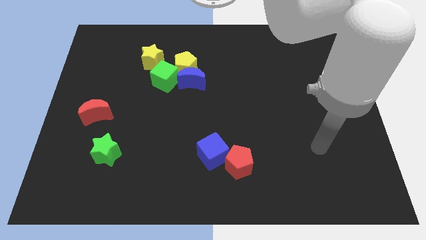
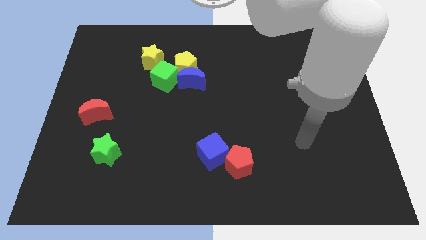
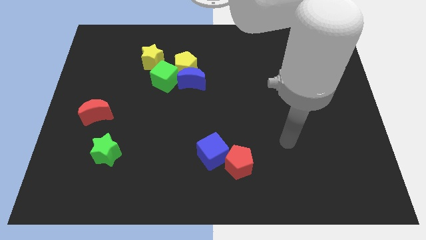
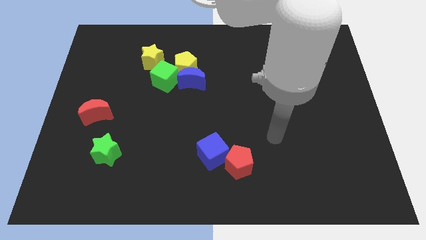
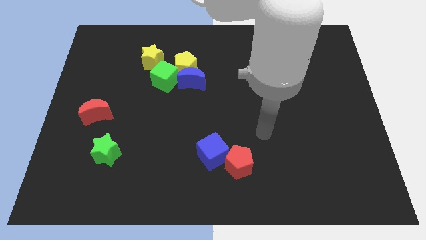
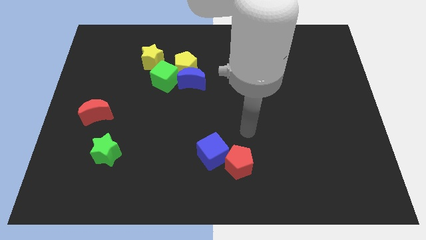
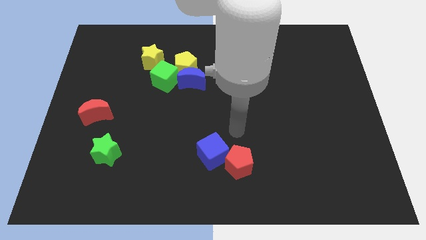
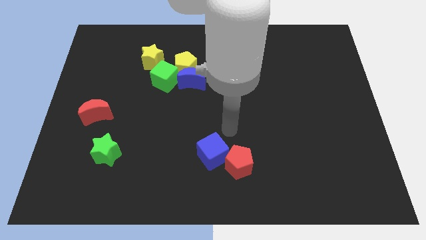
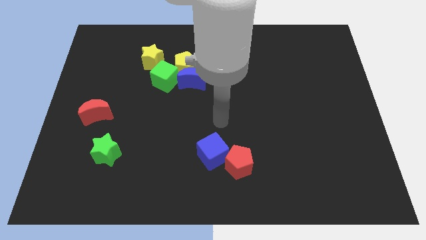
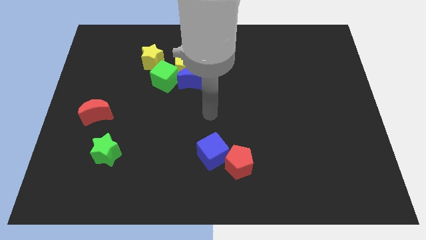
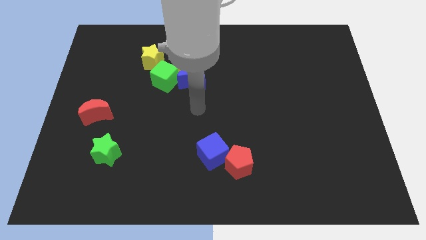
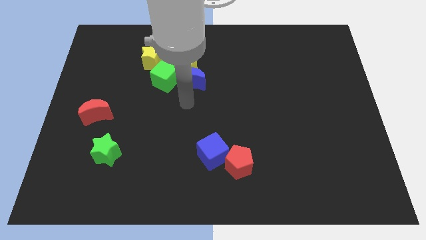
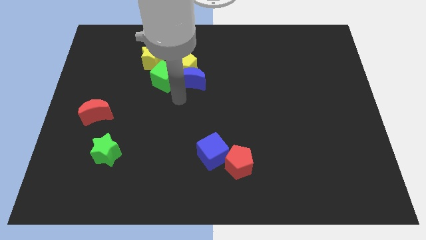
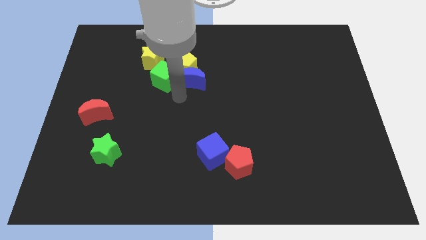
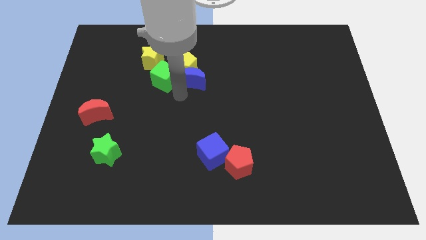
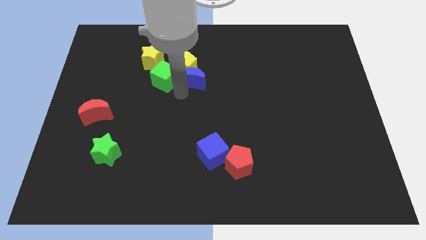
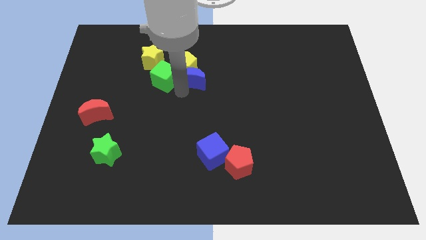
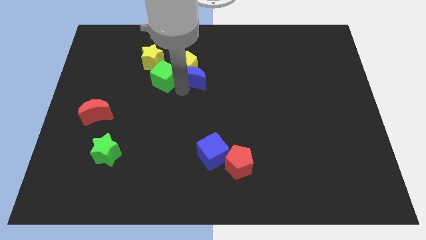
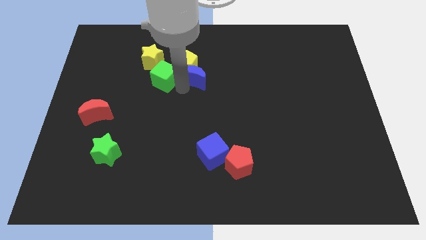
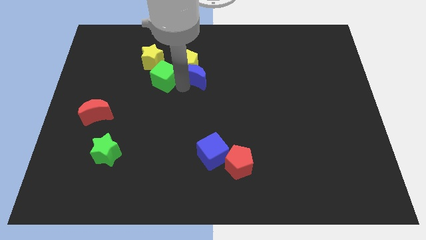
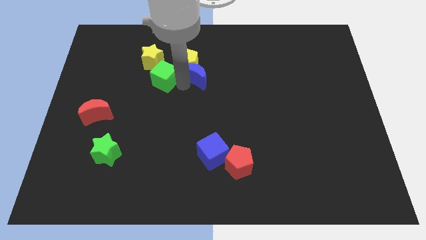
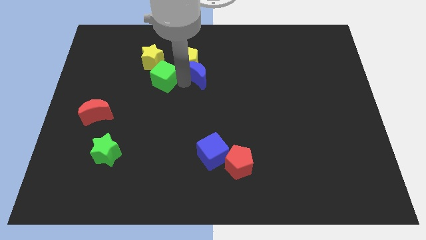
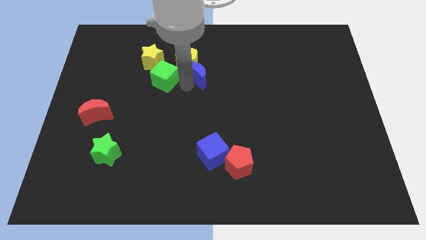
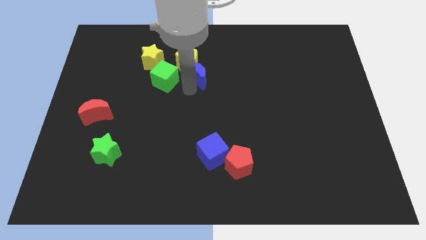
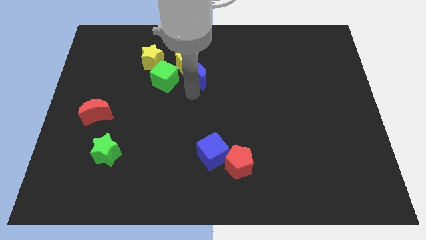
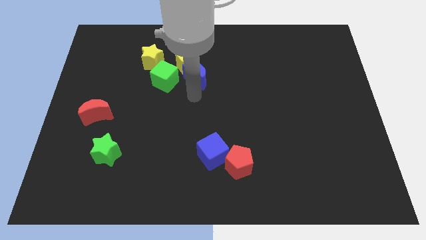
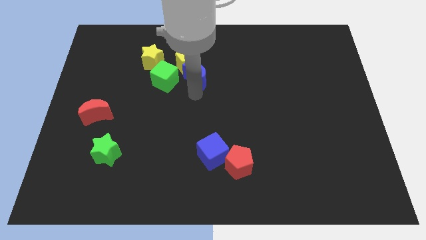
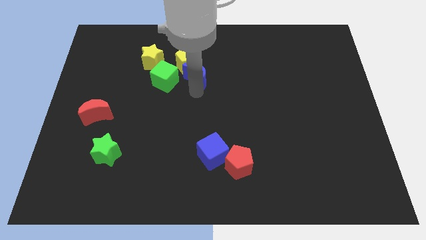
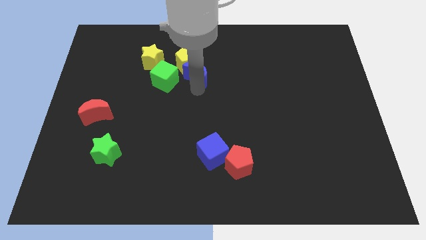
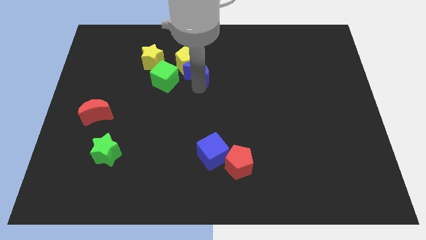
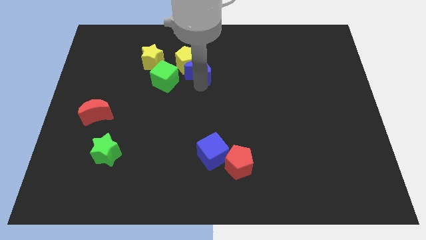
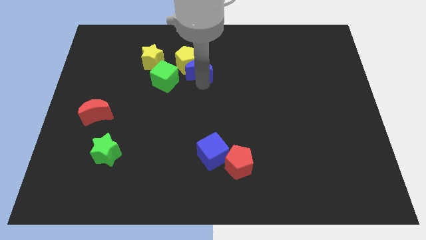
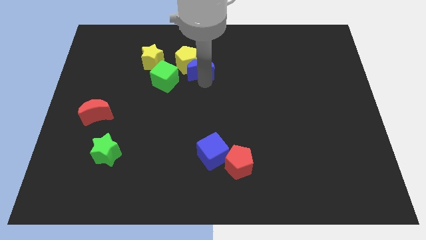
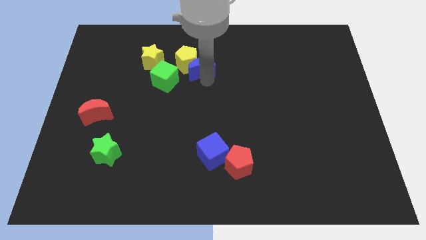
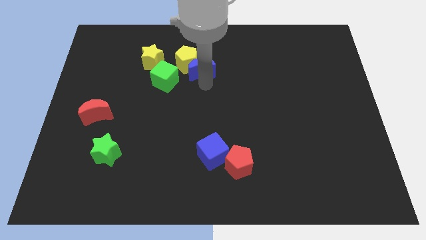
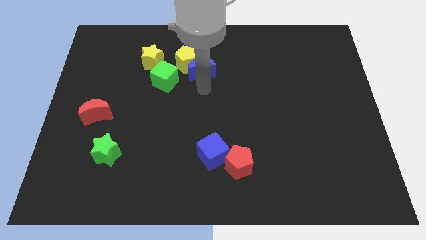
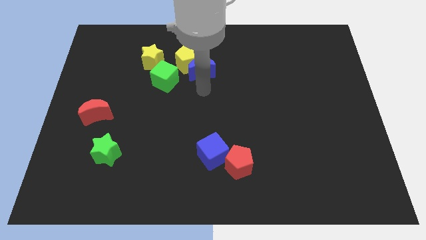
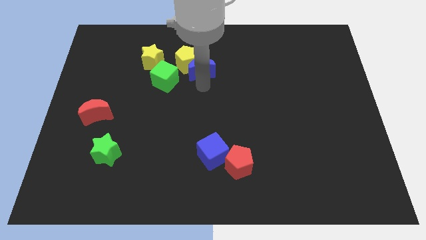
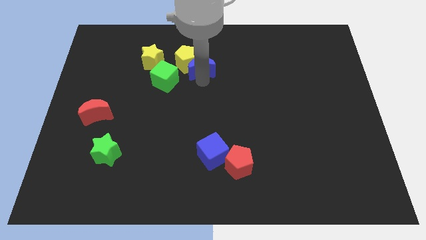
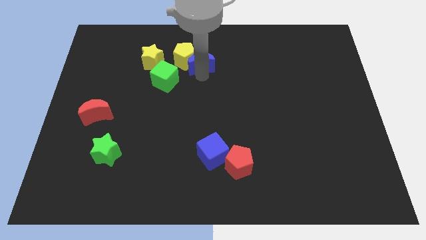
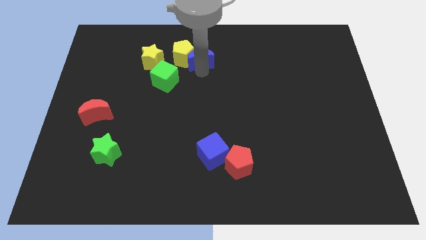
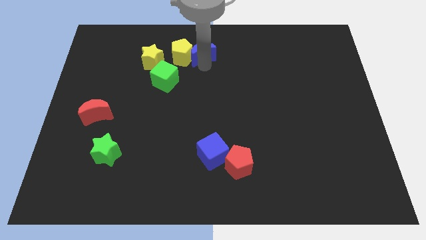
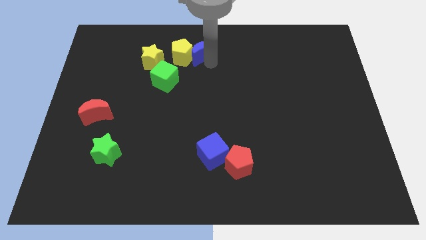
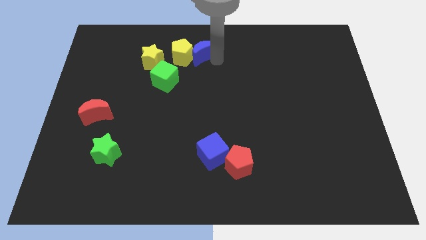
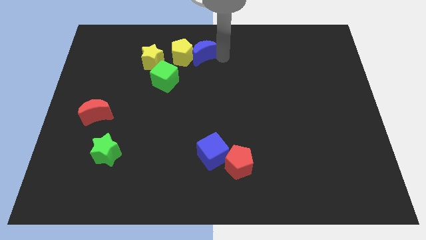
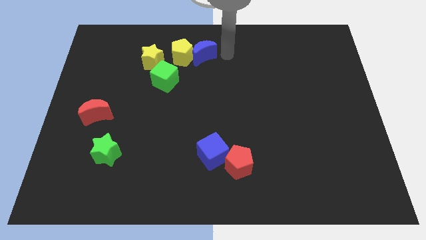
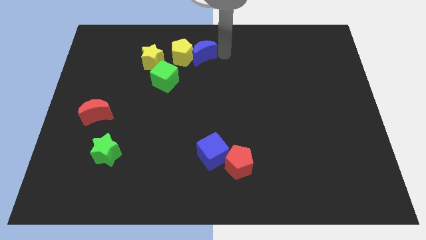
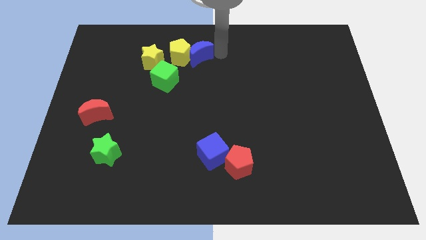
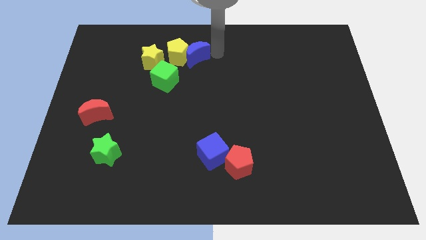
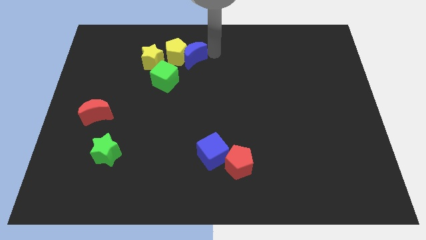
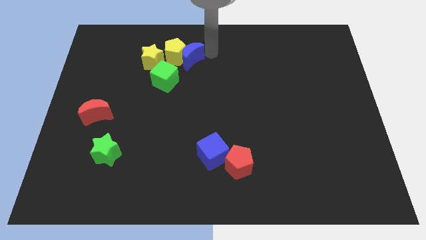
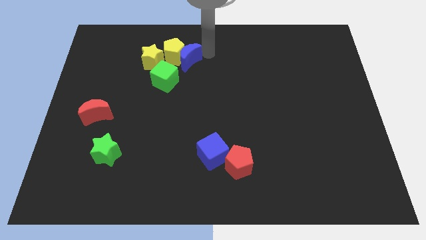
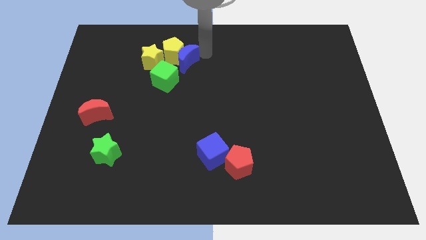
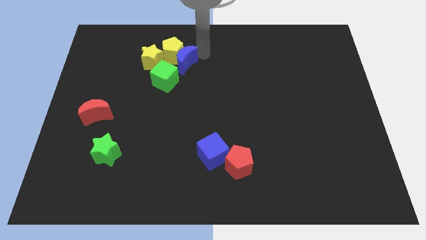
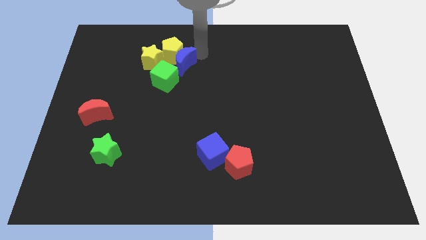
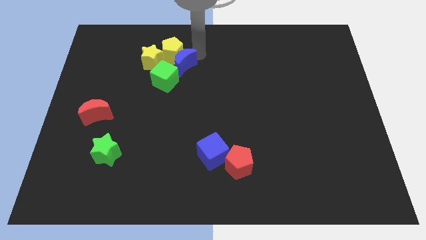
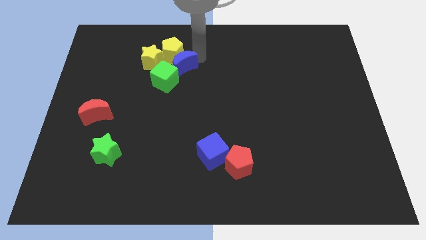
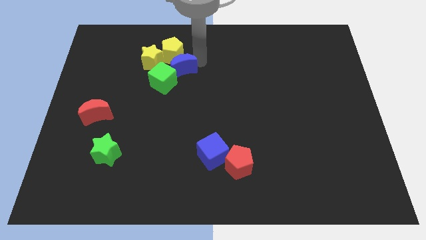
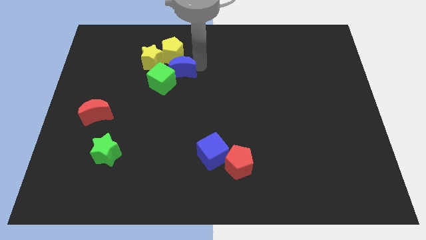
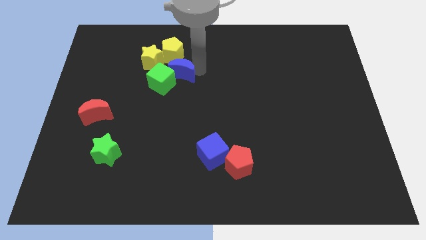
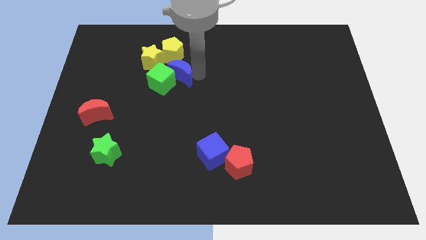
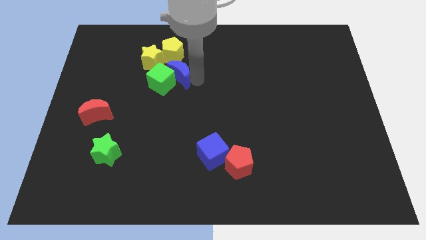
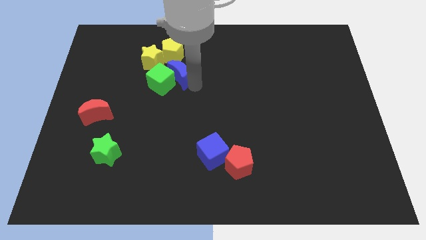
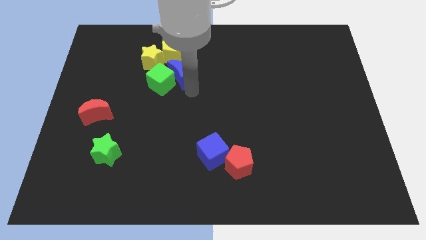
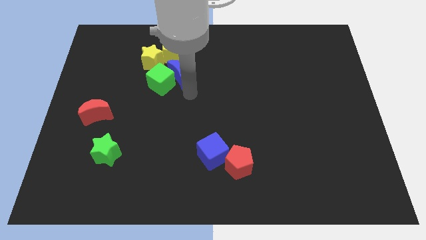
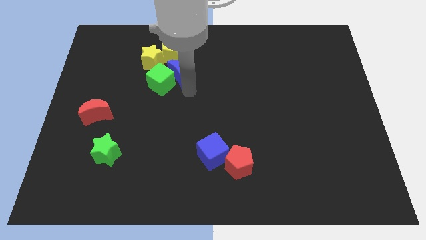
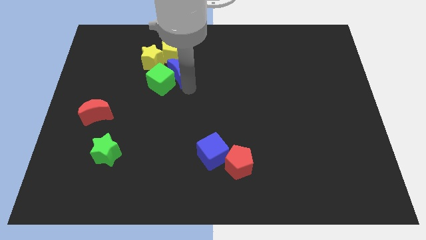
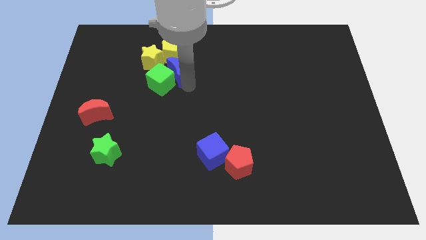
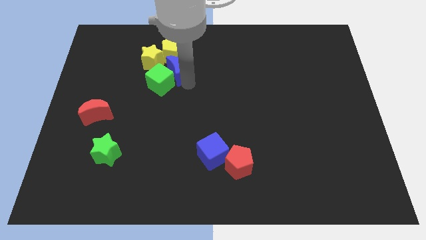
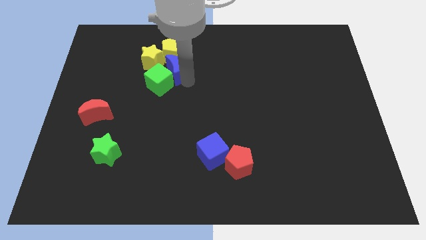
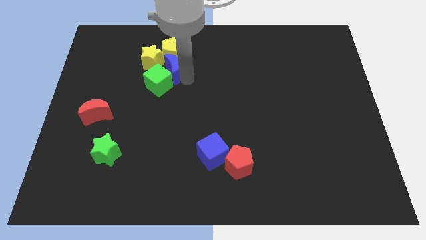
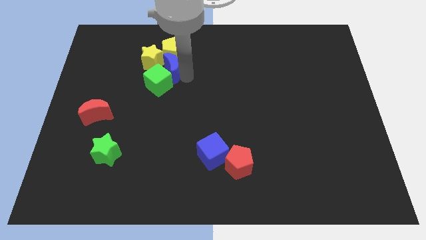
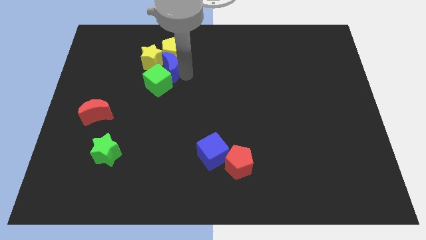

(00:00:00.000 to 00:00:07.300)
slide the blue moon close to the yellow star

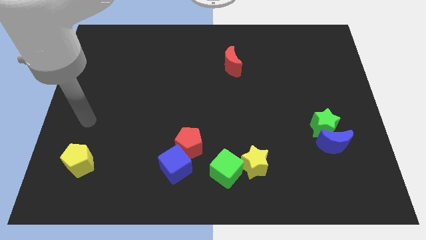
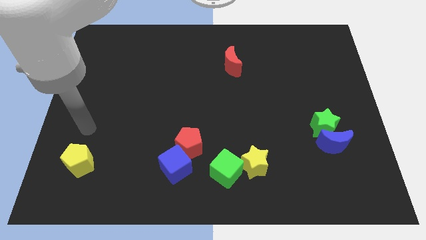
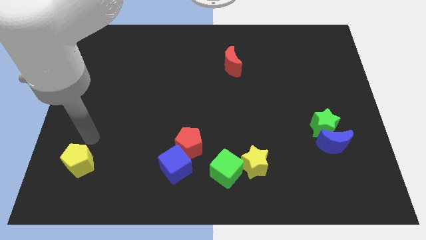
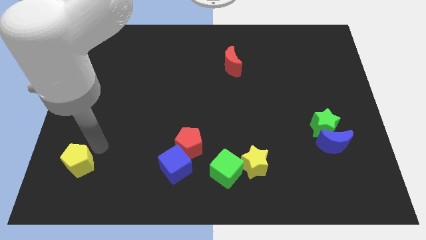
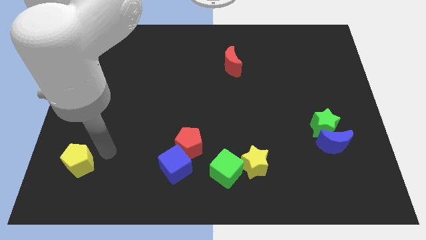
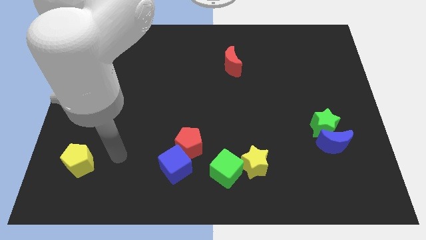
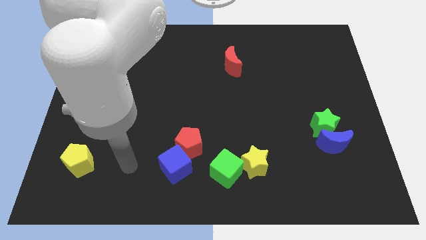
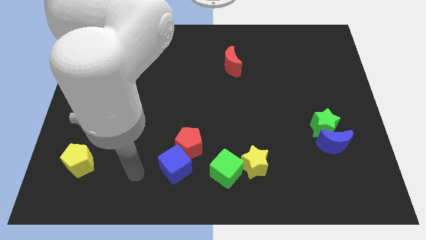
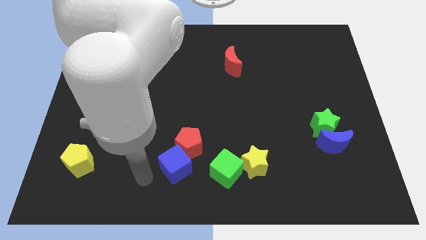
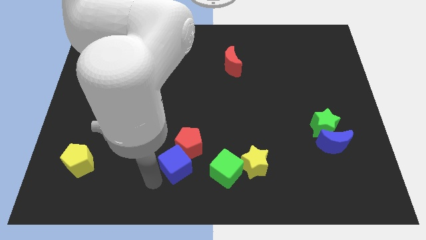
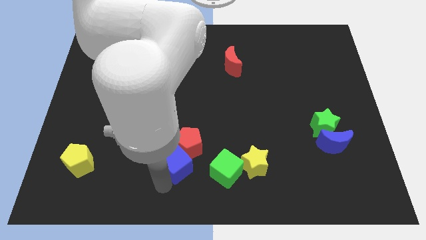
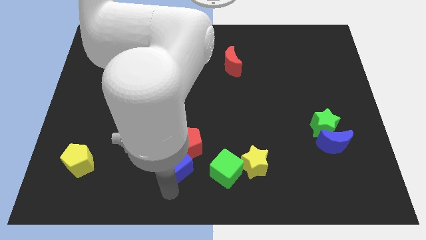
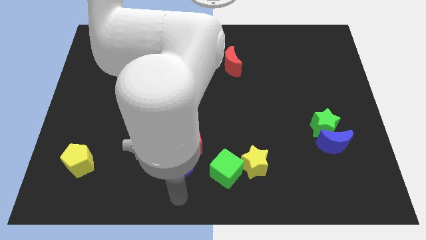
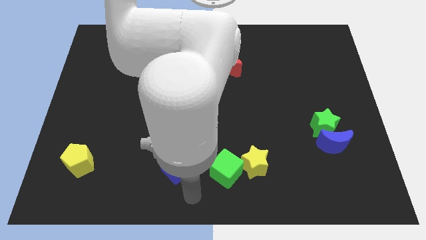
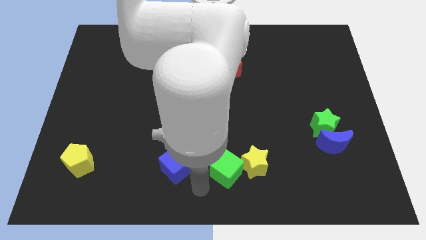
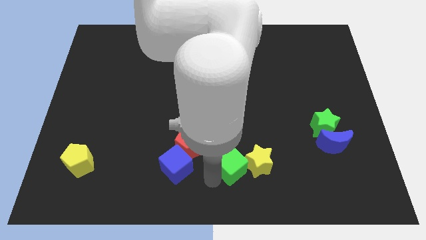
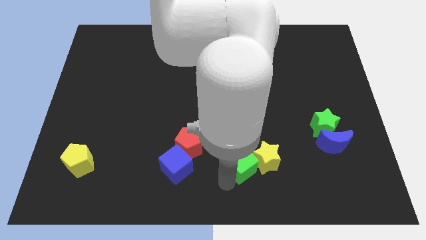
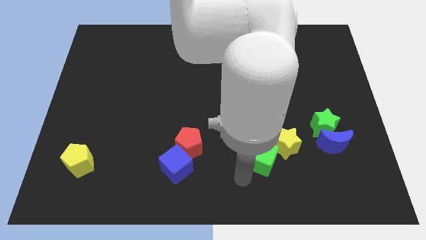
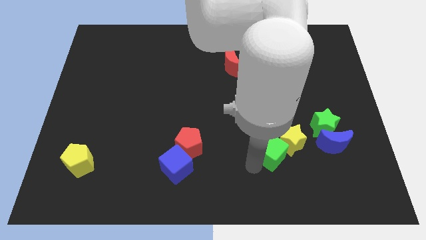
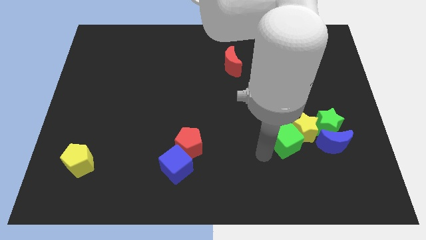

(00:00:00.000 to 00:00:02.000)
move the yellow star towards the green star
